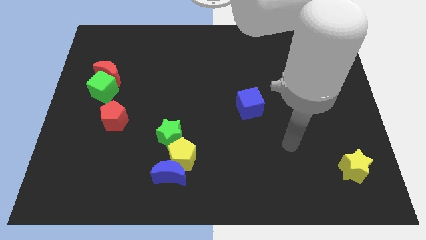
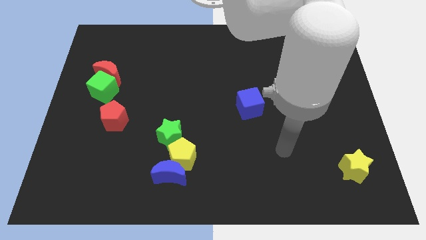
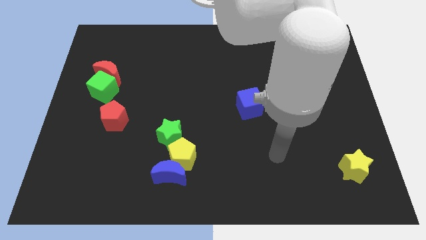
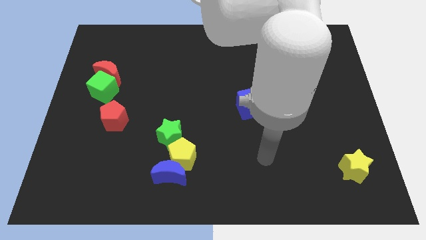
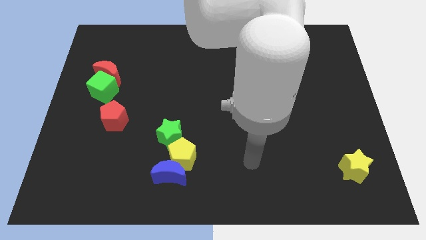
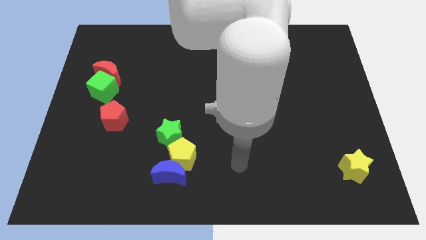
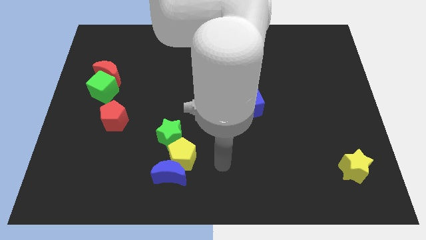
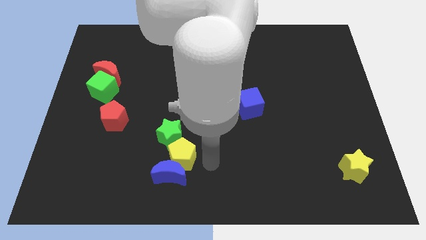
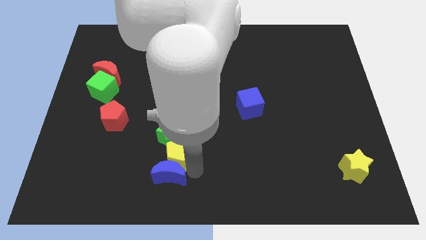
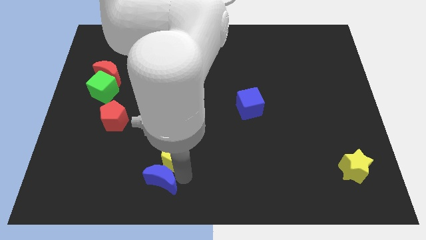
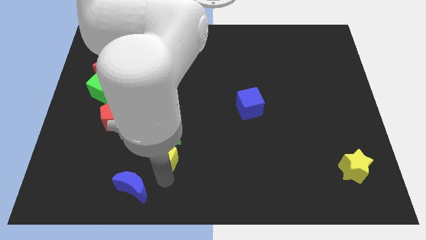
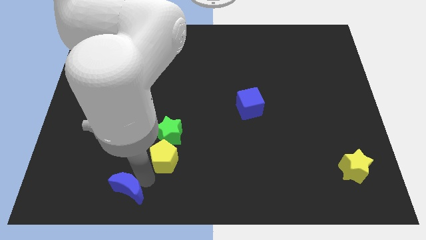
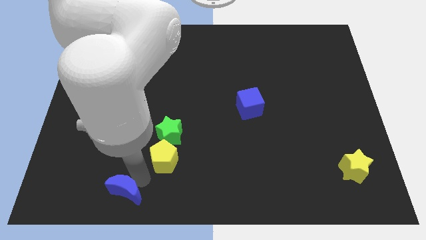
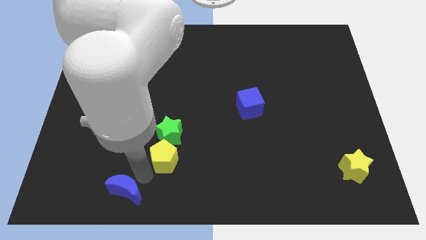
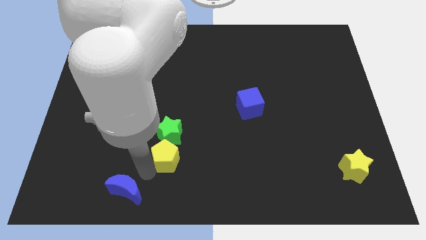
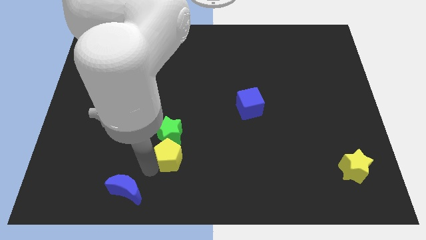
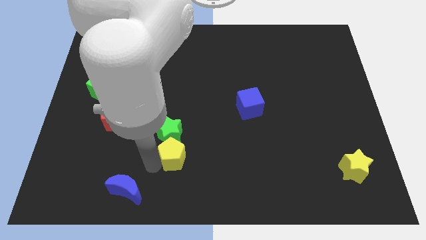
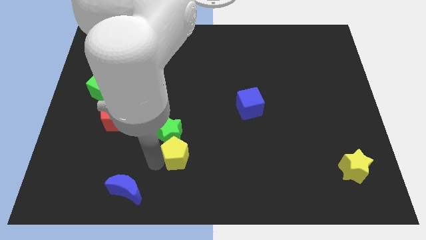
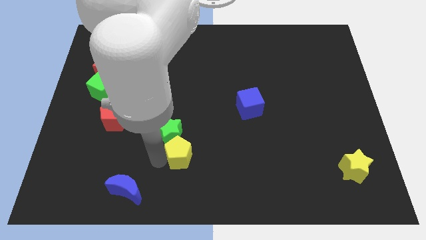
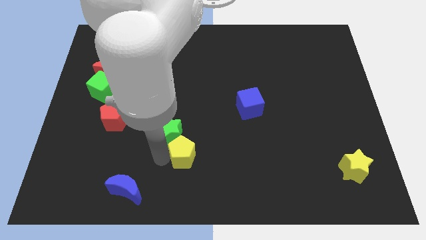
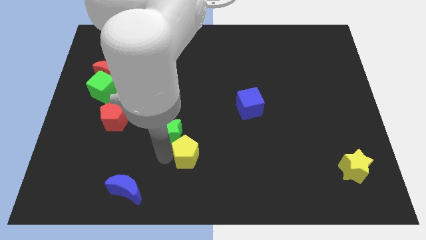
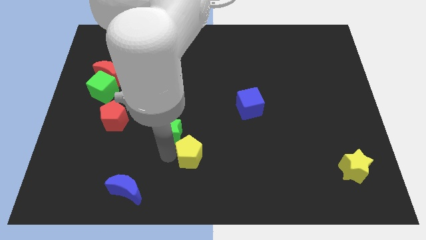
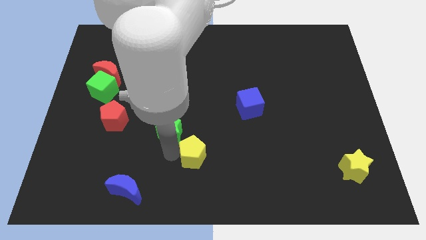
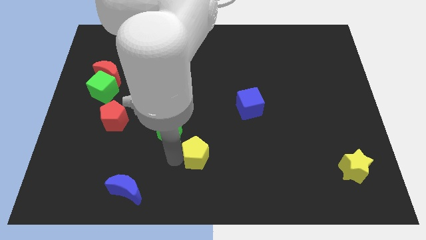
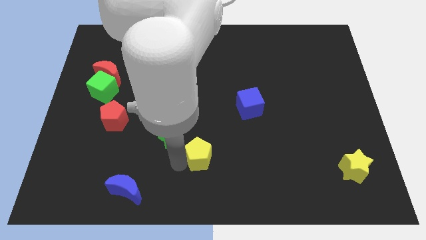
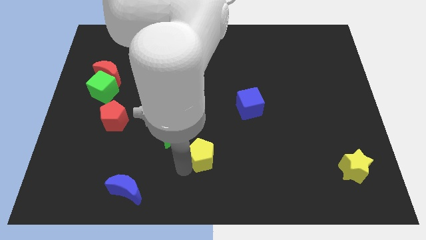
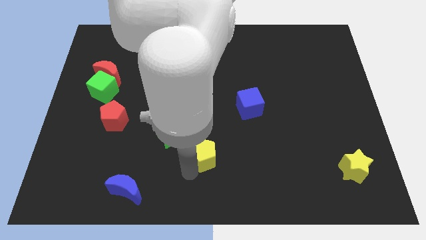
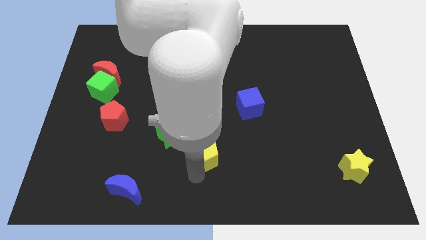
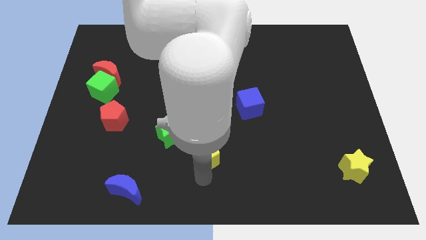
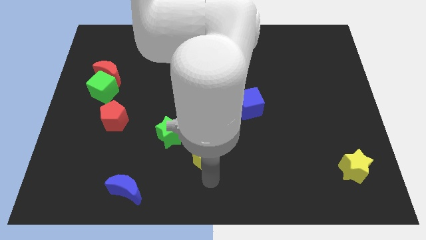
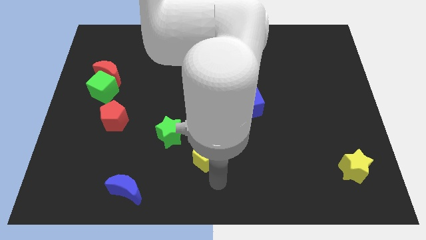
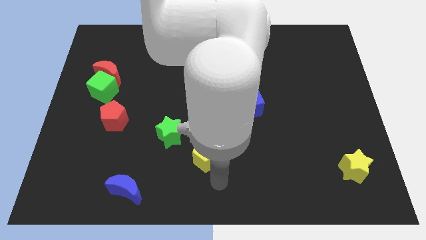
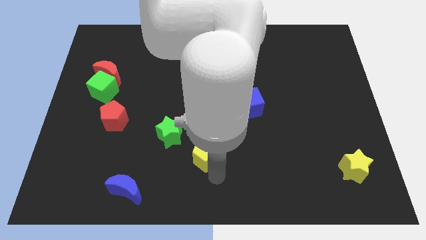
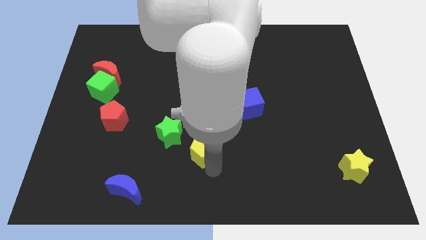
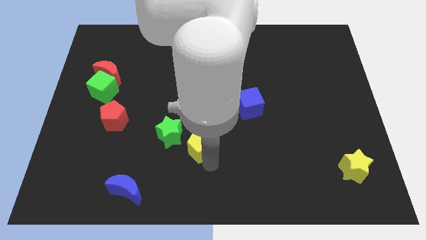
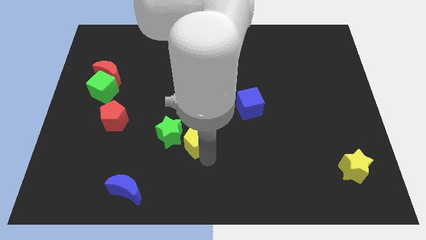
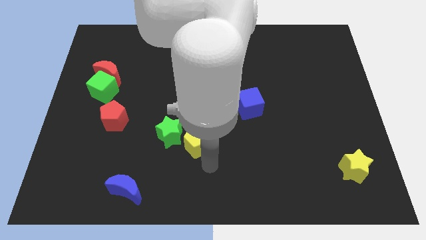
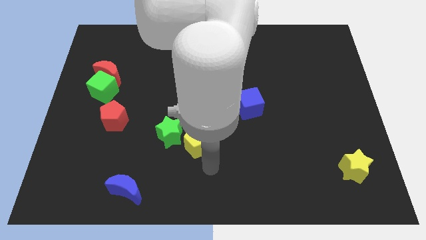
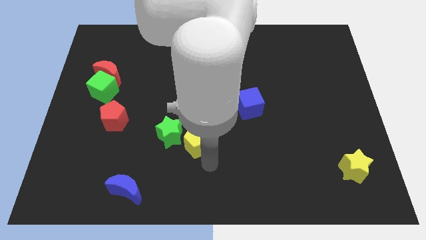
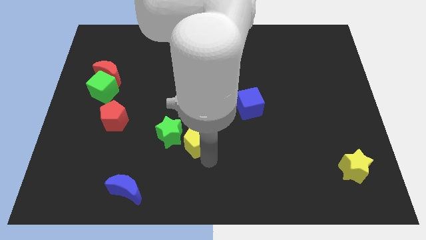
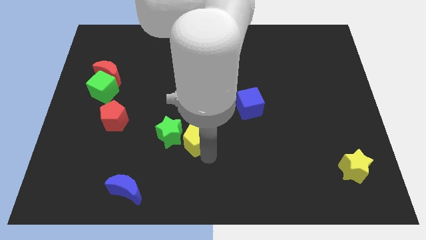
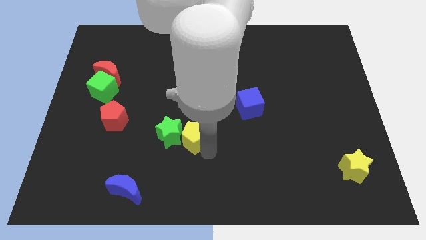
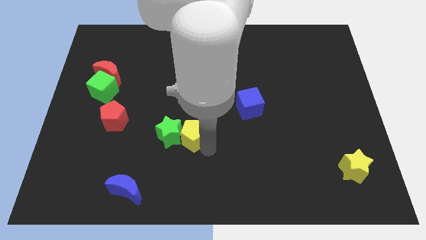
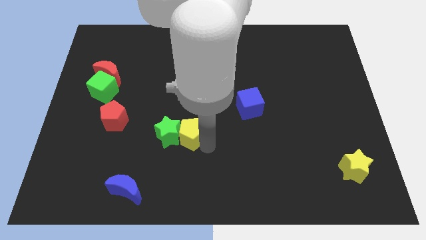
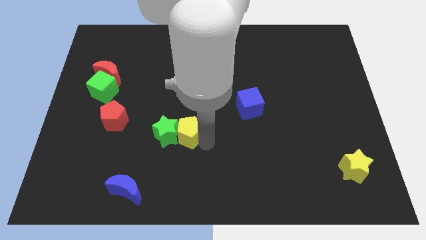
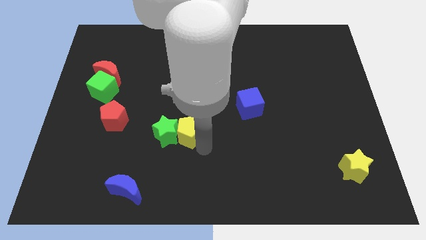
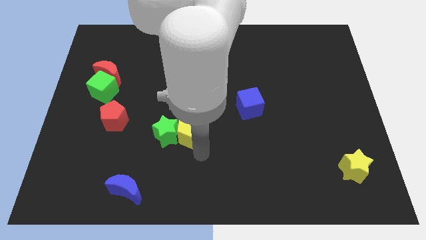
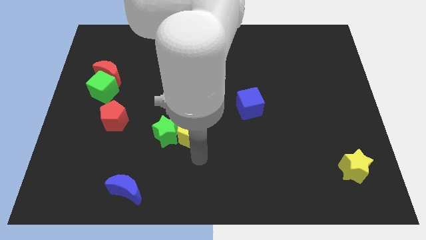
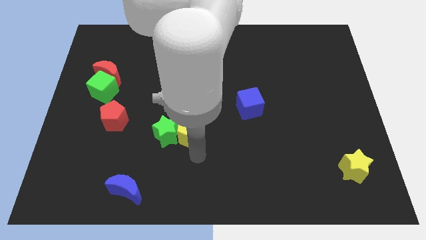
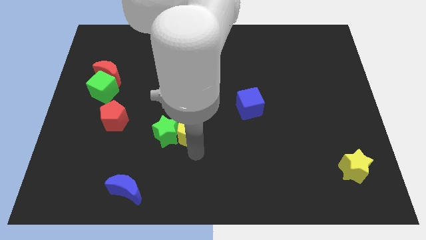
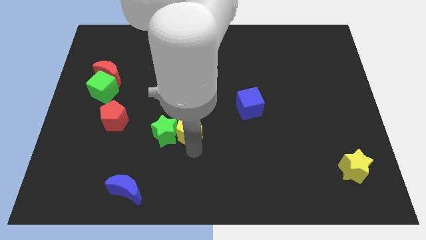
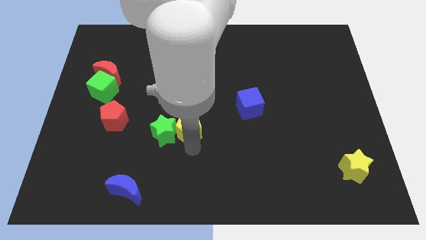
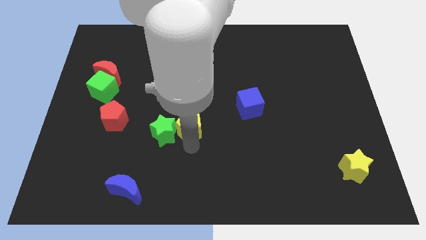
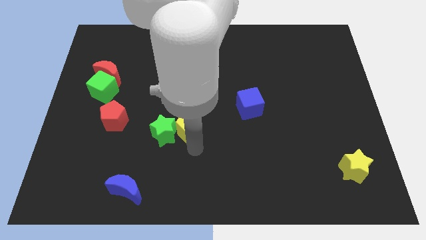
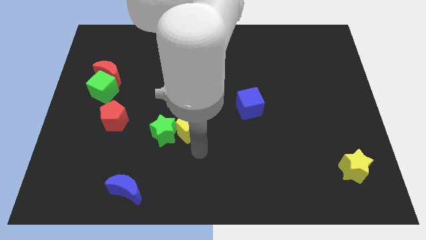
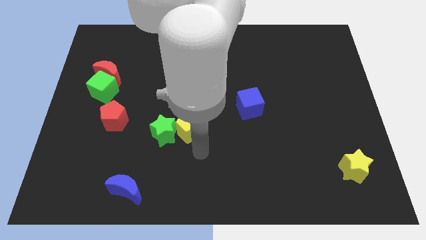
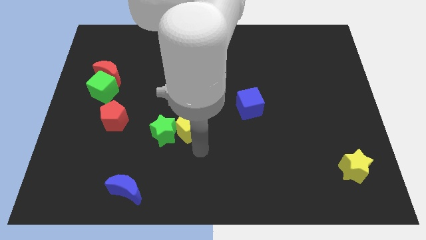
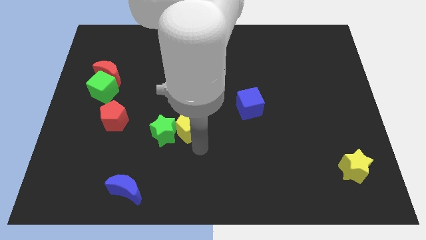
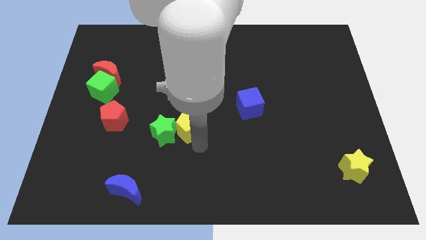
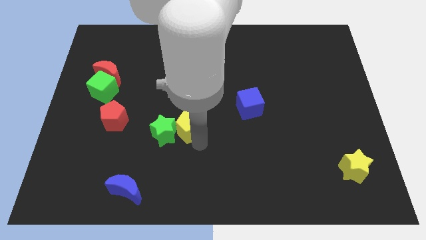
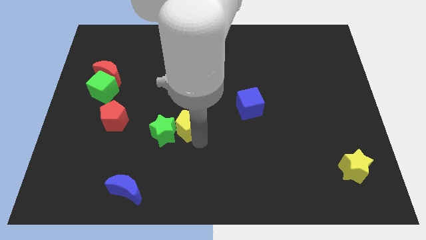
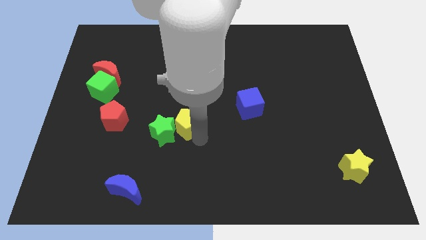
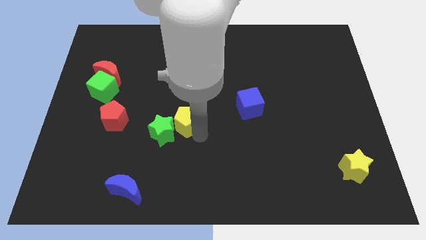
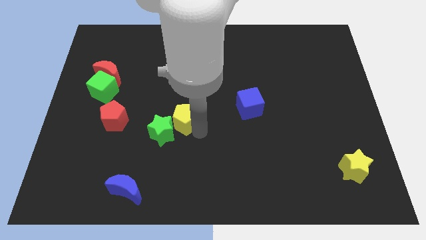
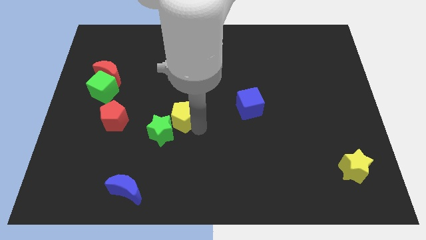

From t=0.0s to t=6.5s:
slide the yellow pentagon to the top of the green star
